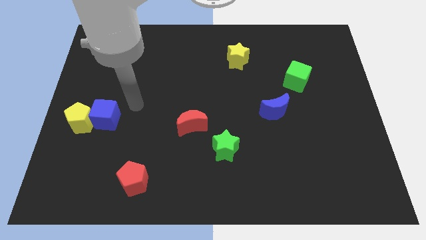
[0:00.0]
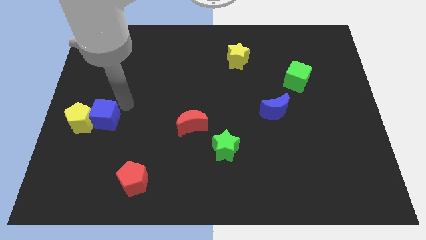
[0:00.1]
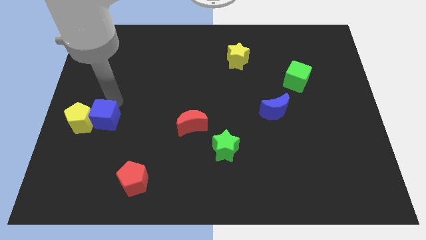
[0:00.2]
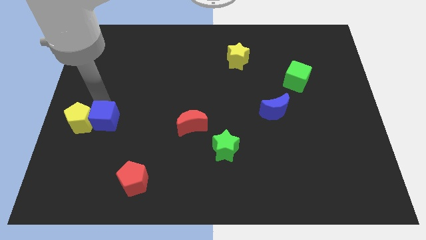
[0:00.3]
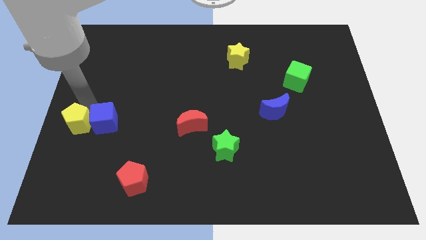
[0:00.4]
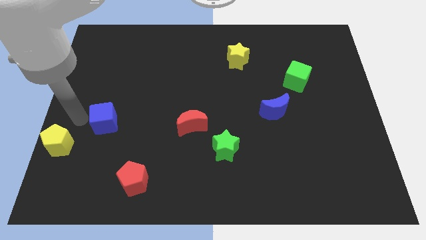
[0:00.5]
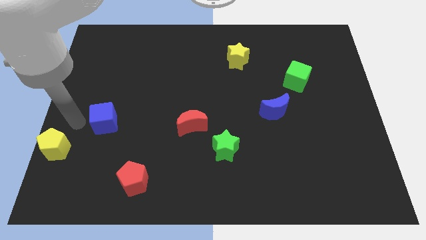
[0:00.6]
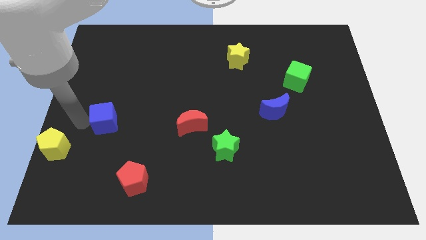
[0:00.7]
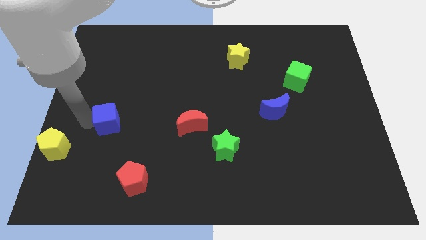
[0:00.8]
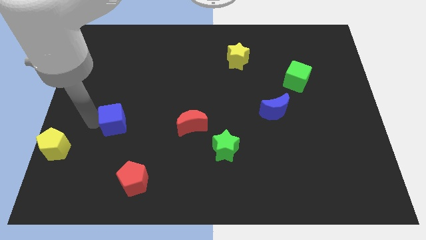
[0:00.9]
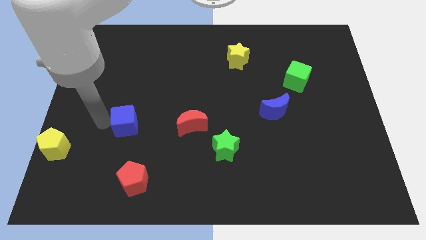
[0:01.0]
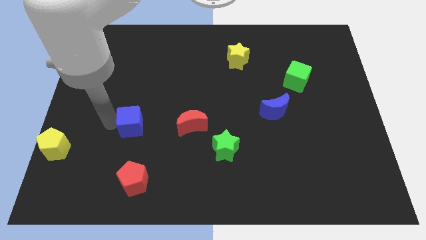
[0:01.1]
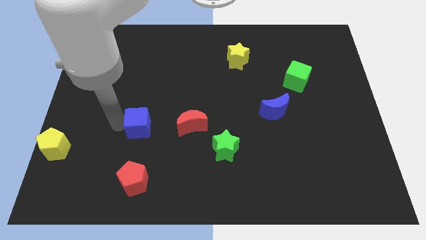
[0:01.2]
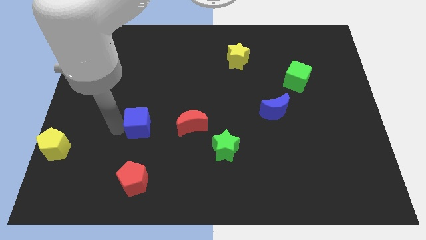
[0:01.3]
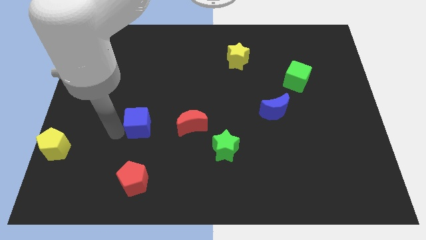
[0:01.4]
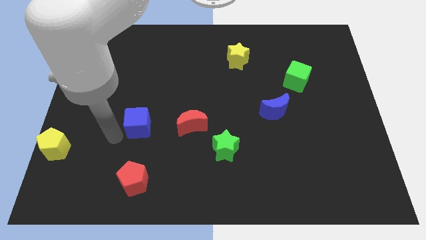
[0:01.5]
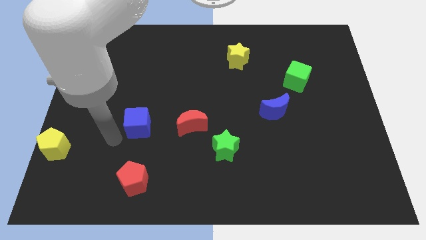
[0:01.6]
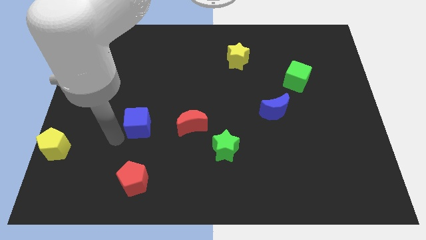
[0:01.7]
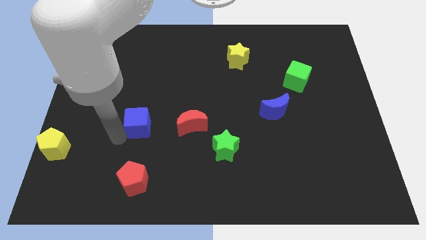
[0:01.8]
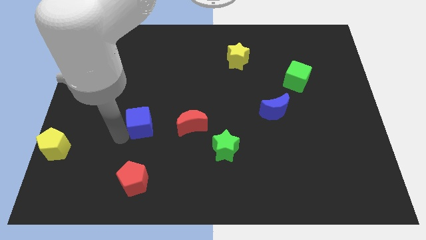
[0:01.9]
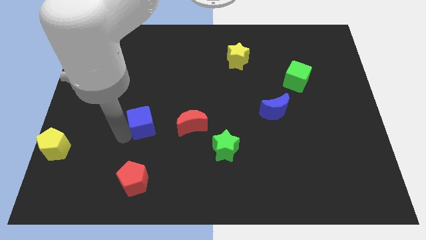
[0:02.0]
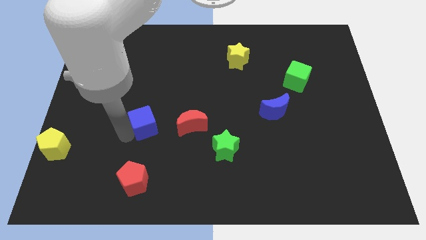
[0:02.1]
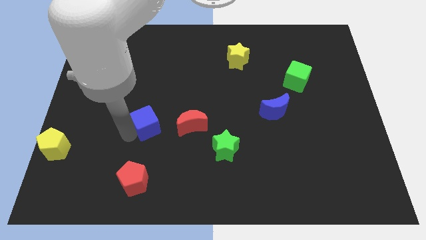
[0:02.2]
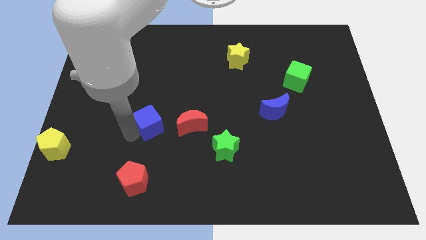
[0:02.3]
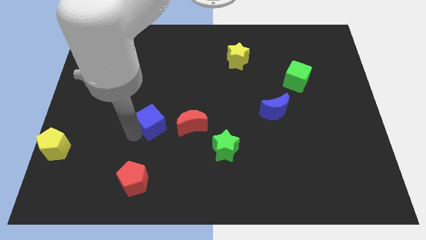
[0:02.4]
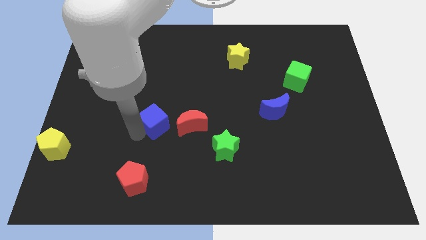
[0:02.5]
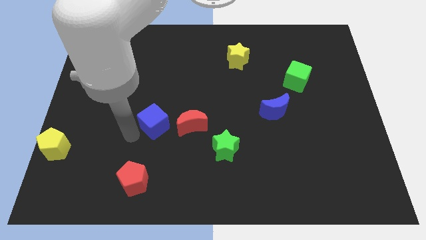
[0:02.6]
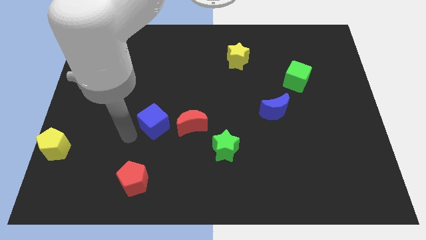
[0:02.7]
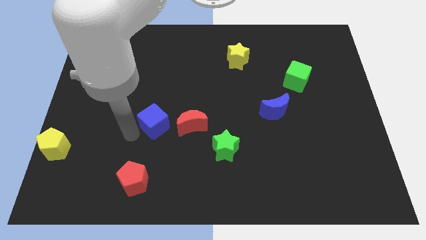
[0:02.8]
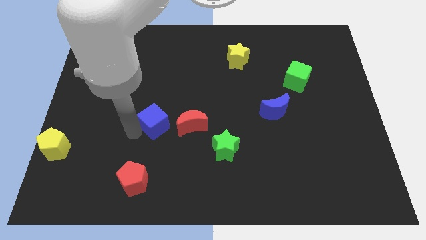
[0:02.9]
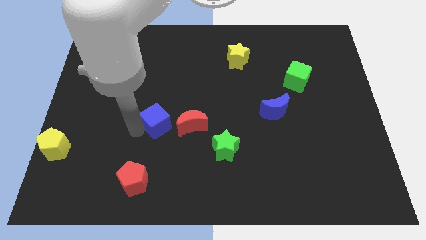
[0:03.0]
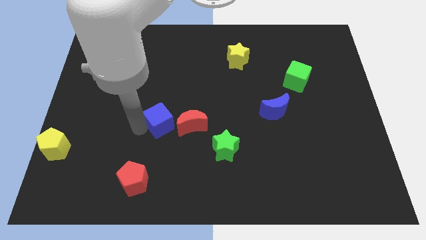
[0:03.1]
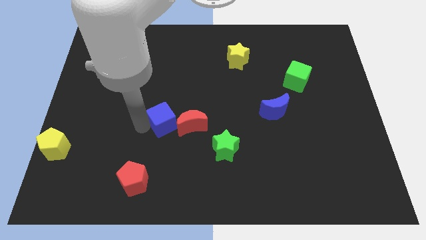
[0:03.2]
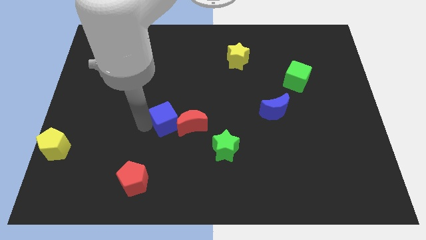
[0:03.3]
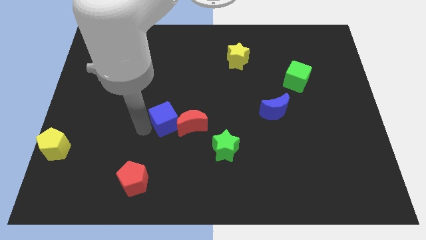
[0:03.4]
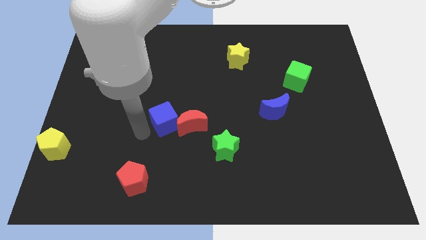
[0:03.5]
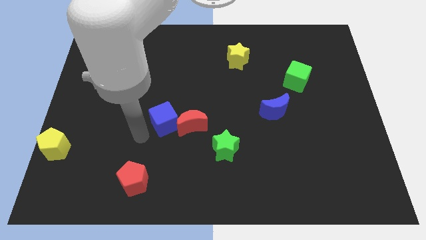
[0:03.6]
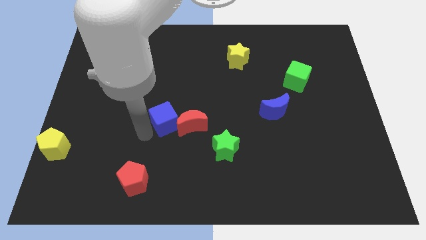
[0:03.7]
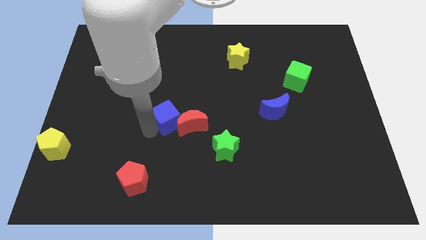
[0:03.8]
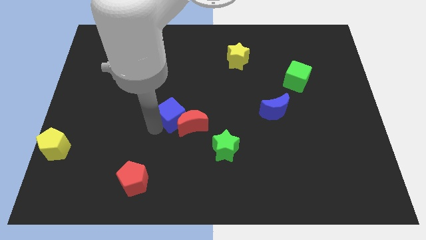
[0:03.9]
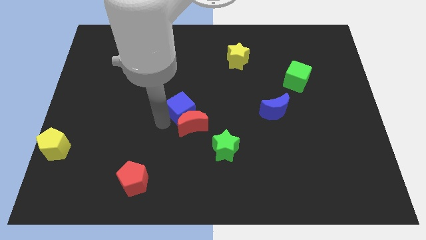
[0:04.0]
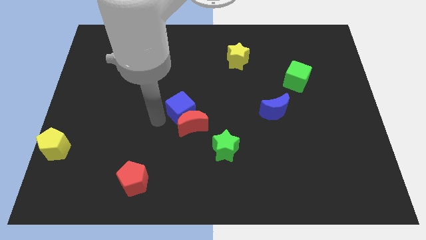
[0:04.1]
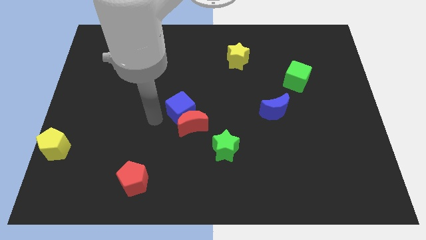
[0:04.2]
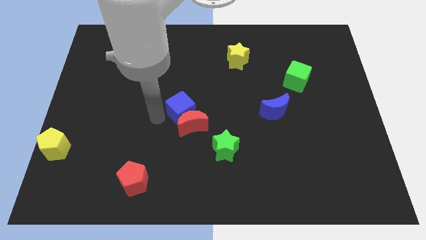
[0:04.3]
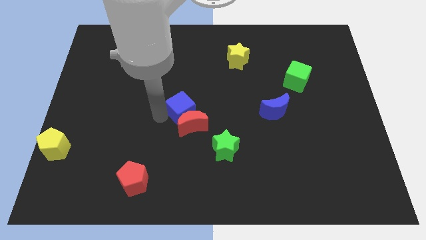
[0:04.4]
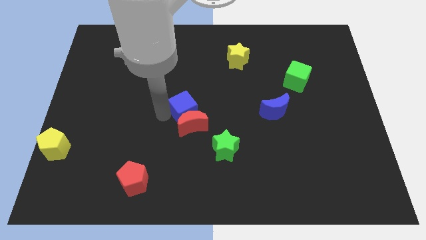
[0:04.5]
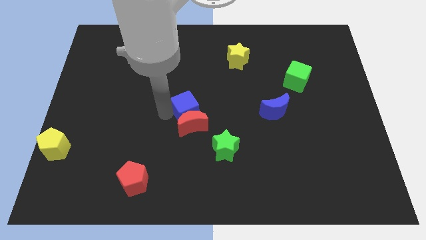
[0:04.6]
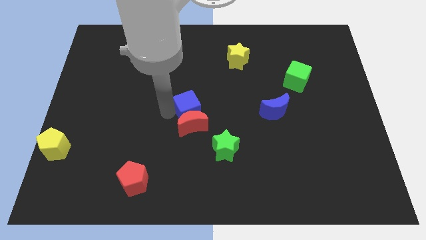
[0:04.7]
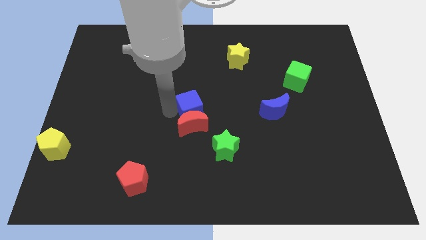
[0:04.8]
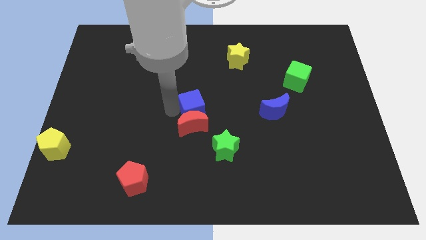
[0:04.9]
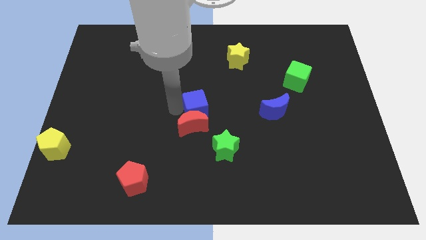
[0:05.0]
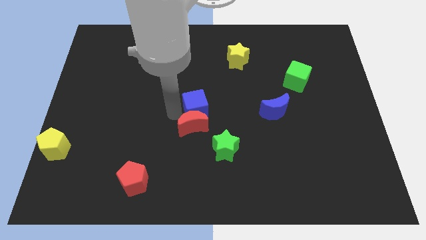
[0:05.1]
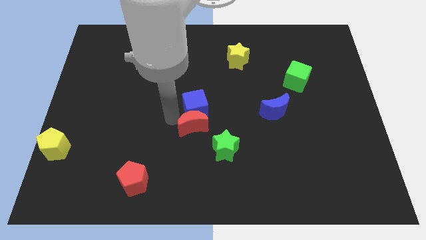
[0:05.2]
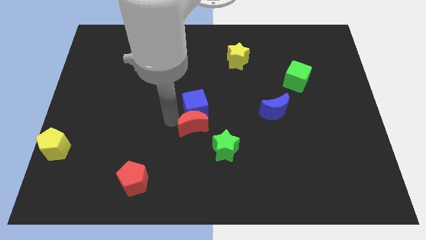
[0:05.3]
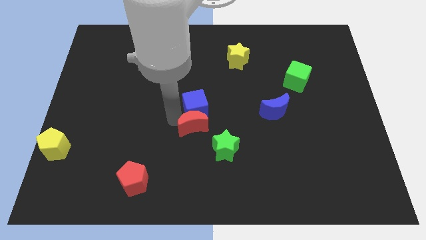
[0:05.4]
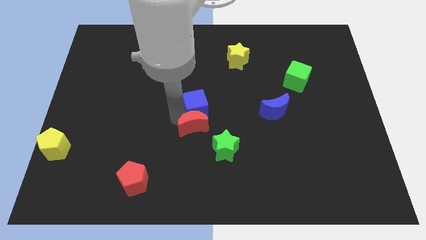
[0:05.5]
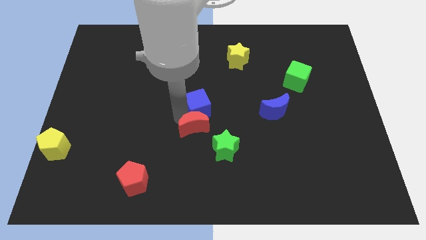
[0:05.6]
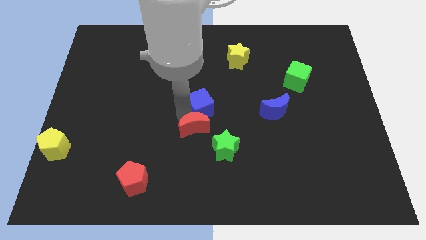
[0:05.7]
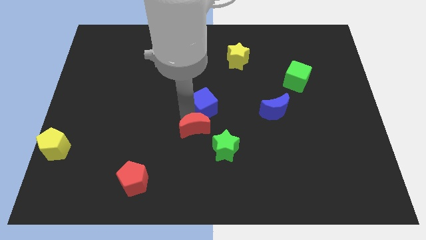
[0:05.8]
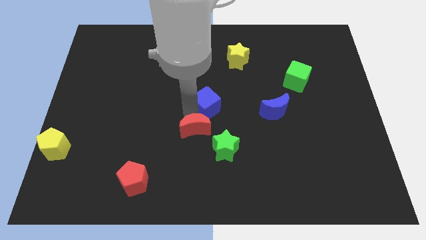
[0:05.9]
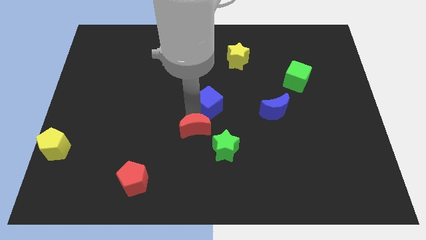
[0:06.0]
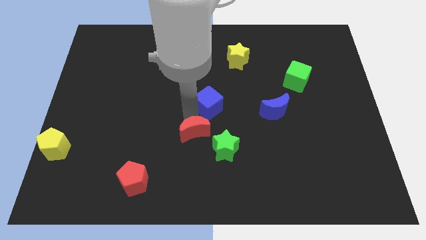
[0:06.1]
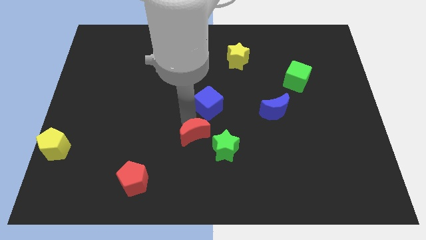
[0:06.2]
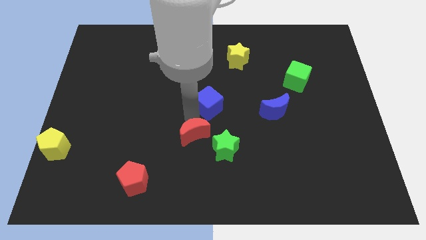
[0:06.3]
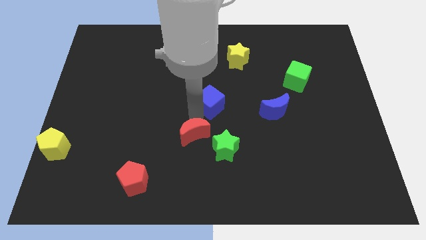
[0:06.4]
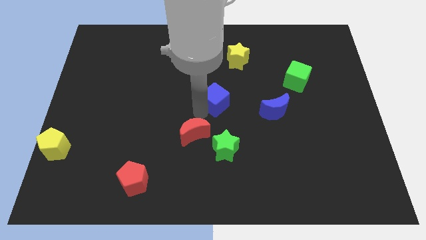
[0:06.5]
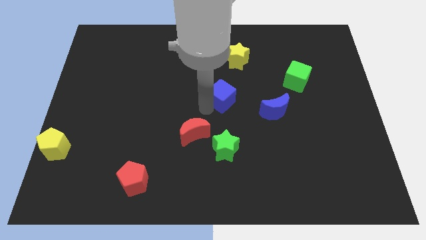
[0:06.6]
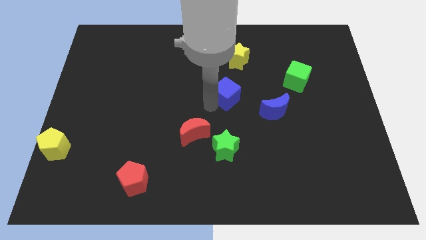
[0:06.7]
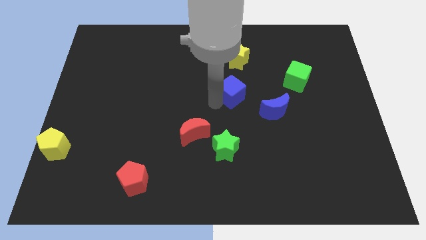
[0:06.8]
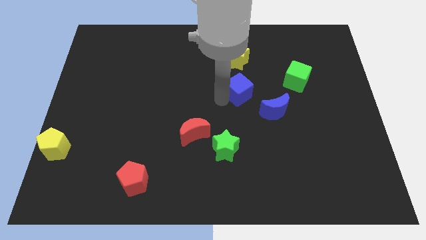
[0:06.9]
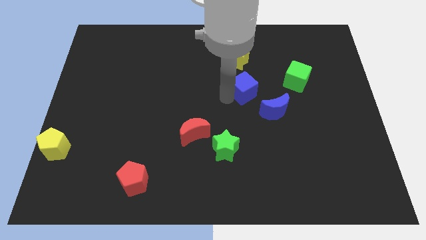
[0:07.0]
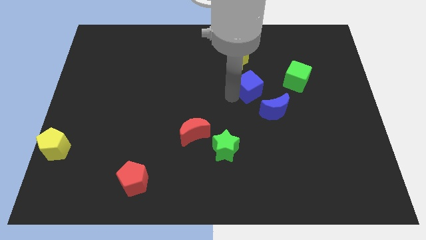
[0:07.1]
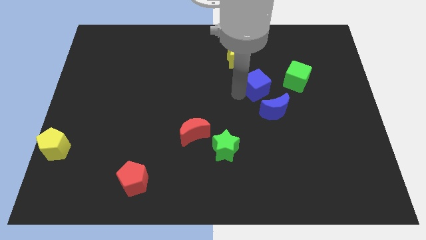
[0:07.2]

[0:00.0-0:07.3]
move the blue cube to the top of the blue moon
